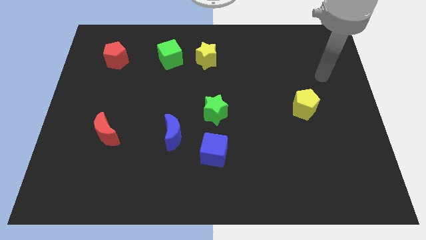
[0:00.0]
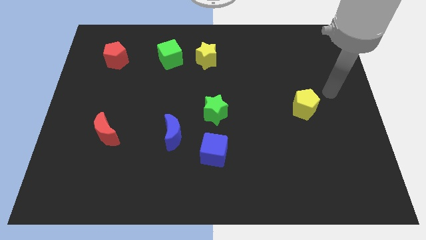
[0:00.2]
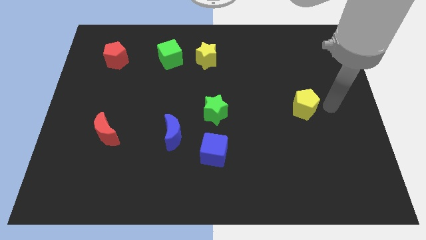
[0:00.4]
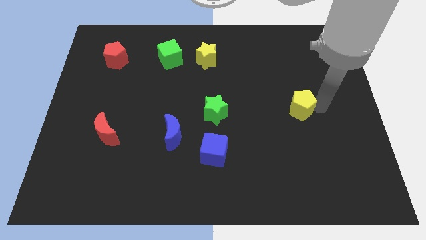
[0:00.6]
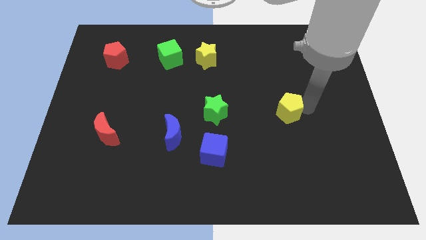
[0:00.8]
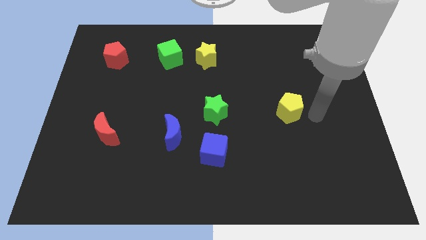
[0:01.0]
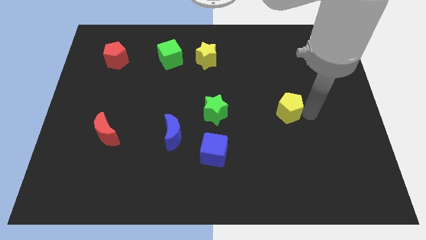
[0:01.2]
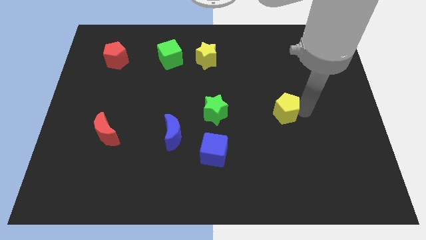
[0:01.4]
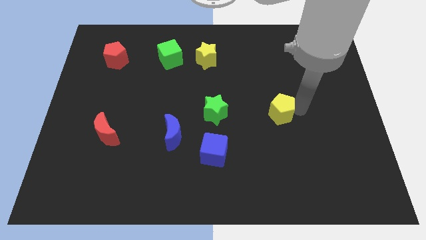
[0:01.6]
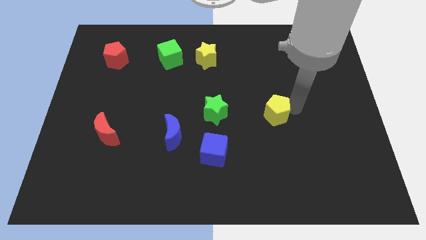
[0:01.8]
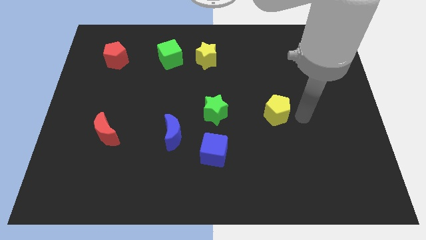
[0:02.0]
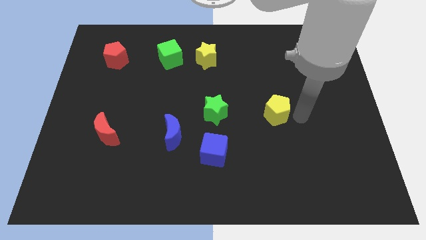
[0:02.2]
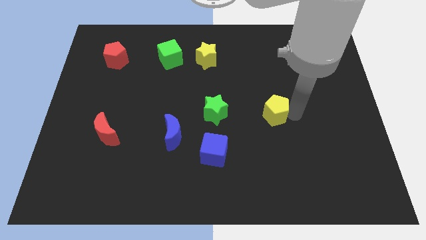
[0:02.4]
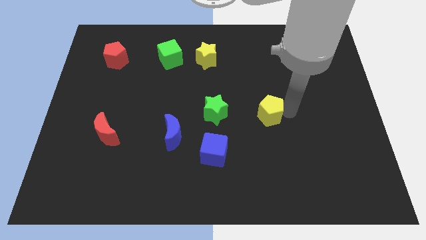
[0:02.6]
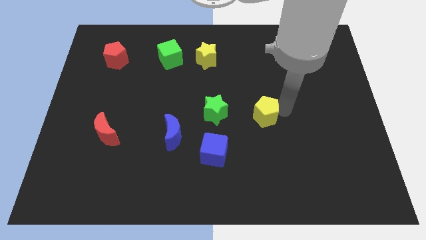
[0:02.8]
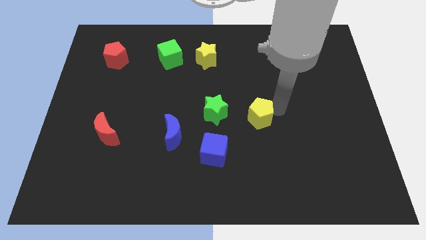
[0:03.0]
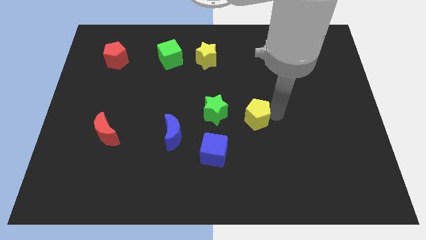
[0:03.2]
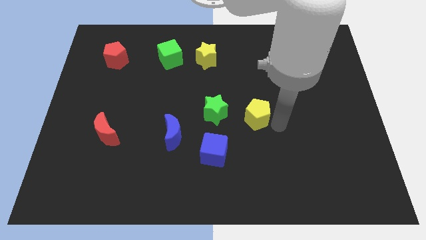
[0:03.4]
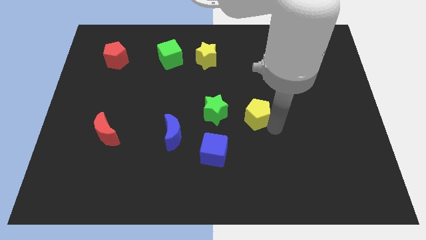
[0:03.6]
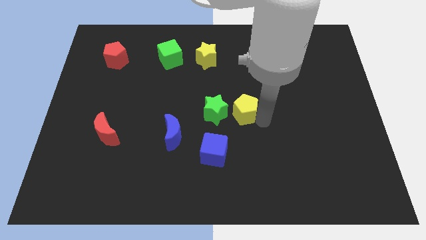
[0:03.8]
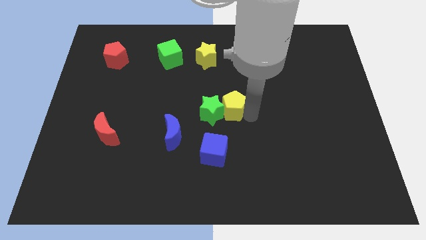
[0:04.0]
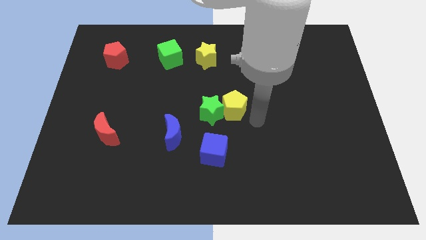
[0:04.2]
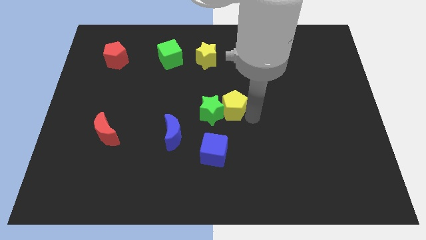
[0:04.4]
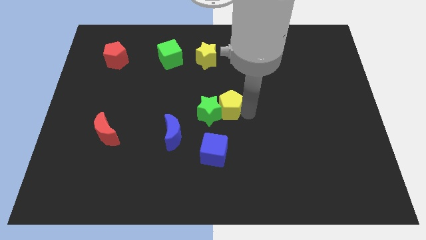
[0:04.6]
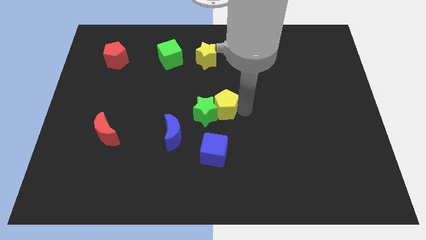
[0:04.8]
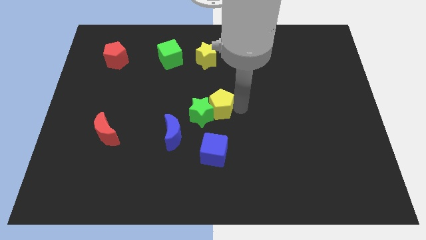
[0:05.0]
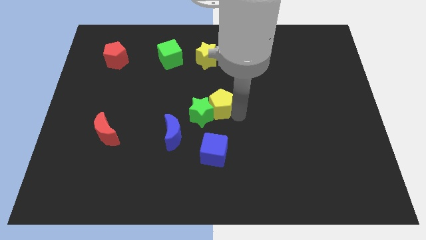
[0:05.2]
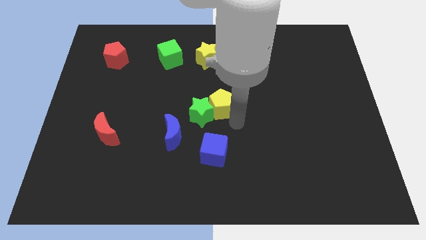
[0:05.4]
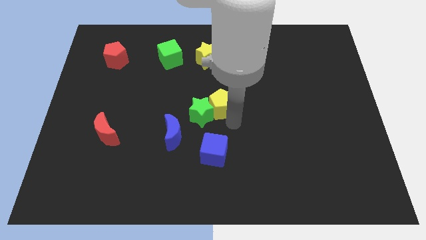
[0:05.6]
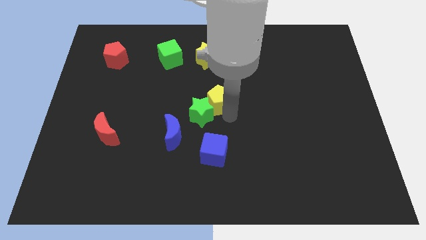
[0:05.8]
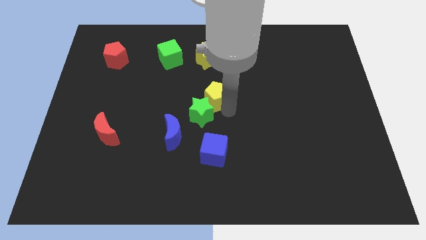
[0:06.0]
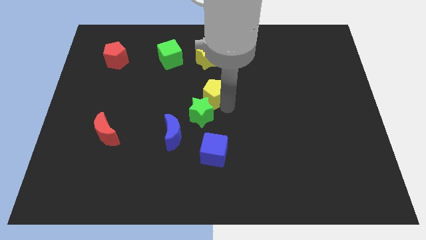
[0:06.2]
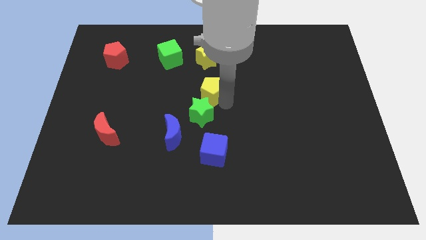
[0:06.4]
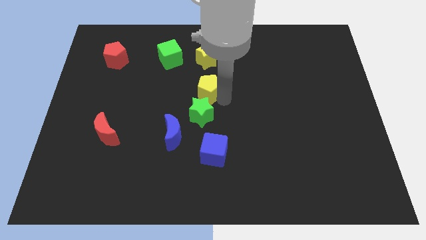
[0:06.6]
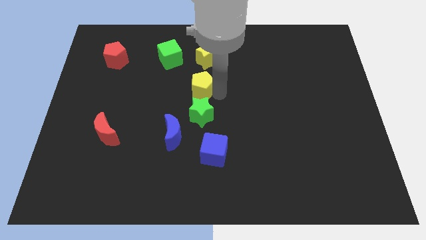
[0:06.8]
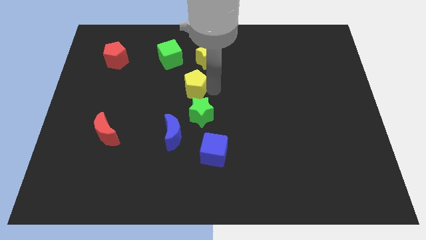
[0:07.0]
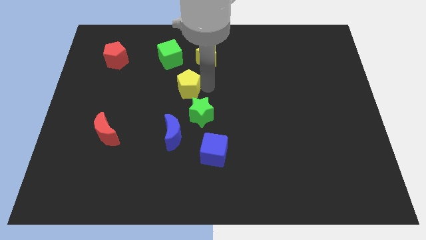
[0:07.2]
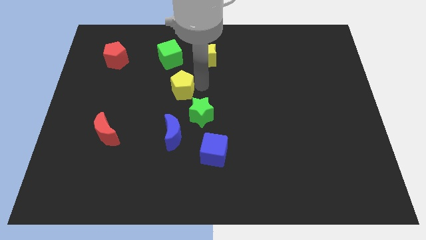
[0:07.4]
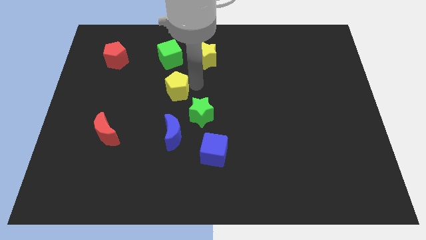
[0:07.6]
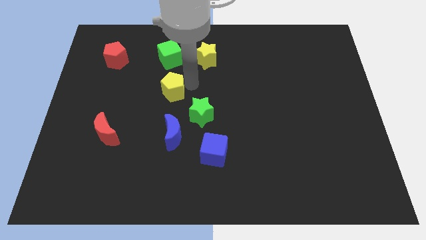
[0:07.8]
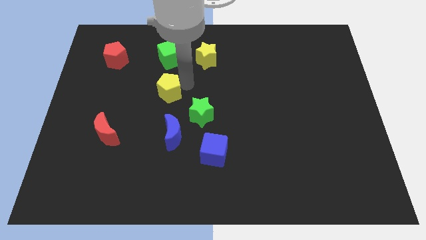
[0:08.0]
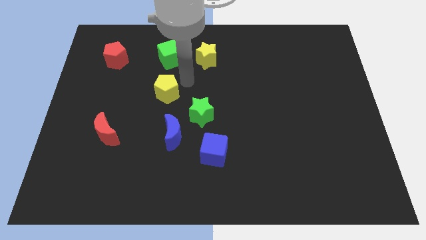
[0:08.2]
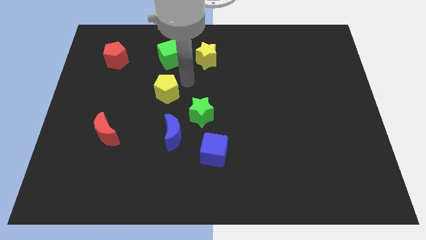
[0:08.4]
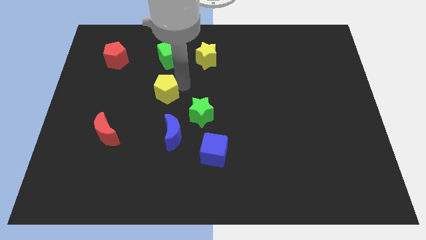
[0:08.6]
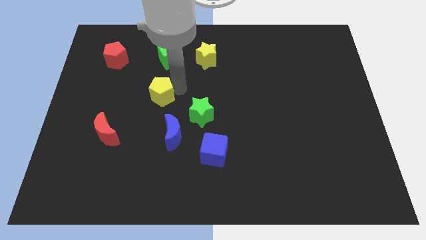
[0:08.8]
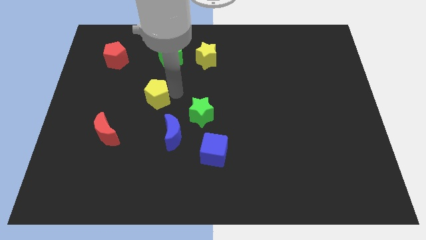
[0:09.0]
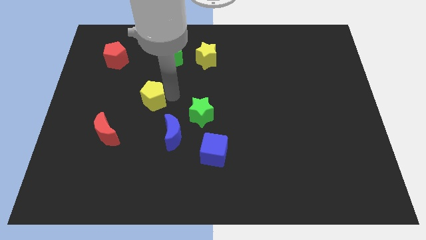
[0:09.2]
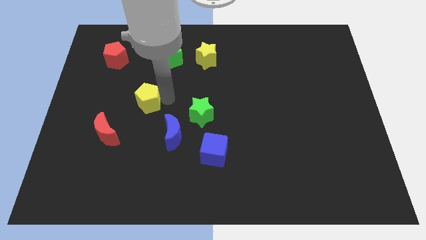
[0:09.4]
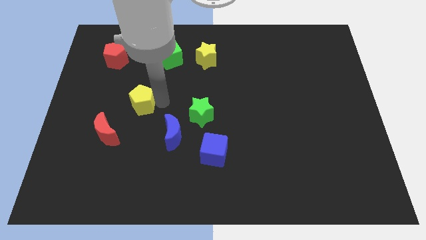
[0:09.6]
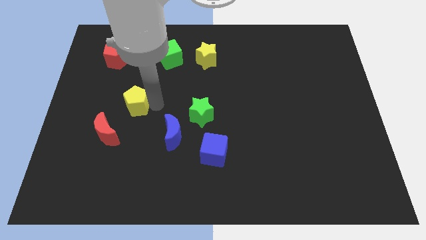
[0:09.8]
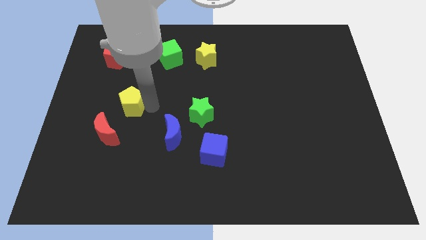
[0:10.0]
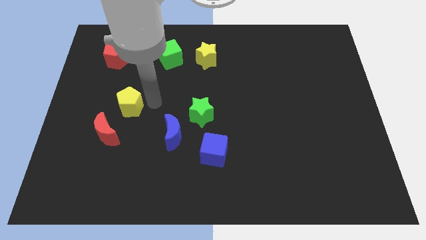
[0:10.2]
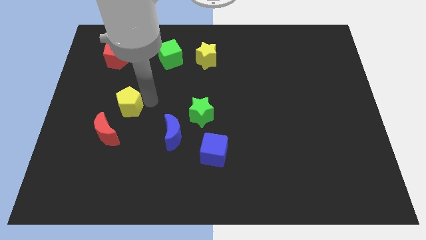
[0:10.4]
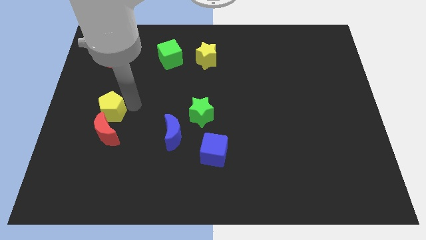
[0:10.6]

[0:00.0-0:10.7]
move the yellow pentagon diagonally up and to the left of the red moon

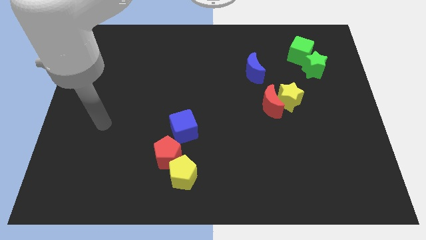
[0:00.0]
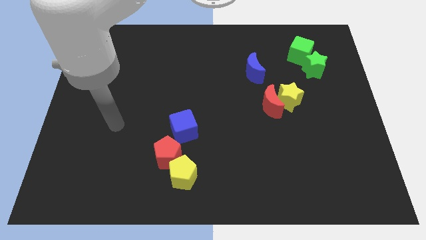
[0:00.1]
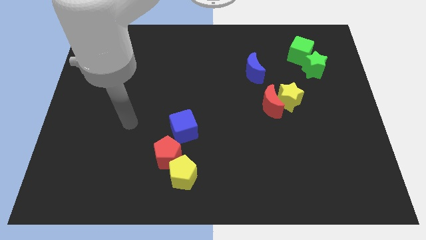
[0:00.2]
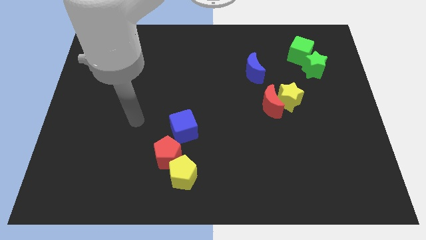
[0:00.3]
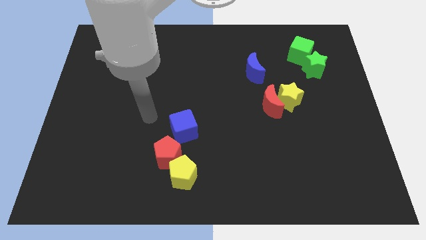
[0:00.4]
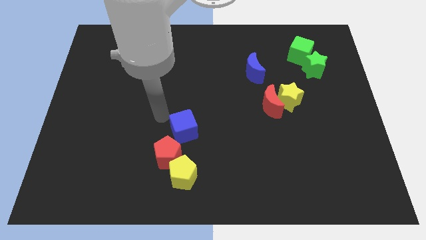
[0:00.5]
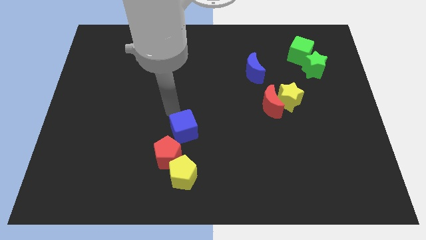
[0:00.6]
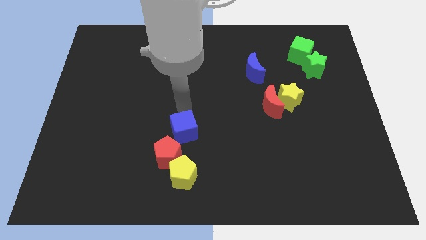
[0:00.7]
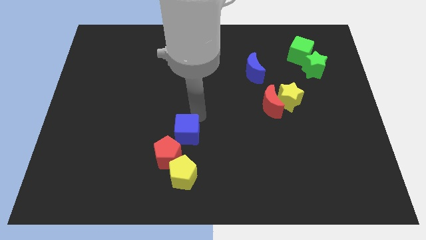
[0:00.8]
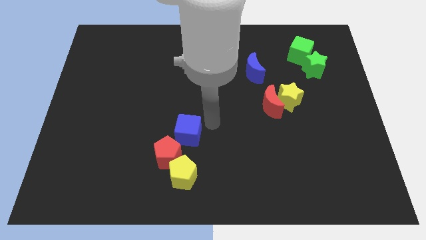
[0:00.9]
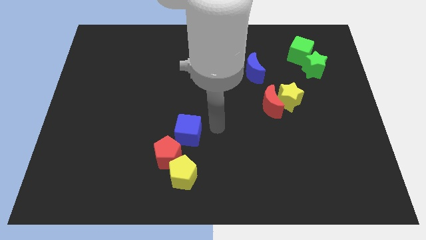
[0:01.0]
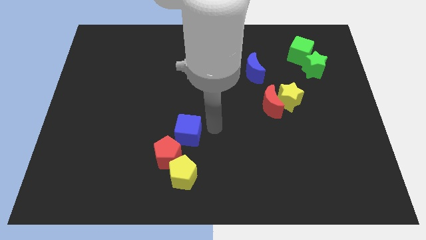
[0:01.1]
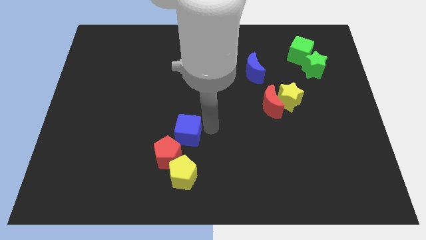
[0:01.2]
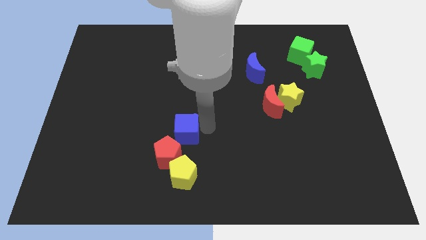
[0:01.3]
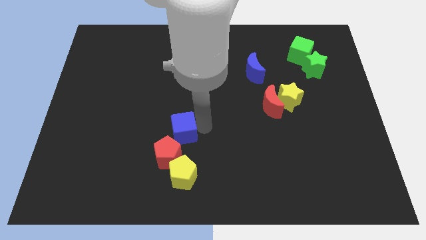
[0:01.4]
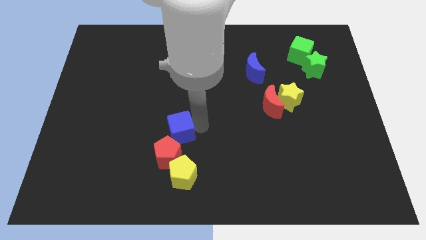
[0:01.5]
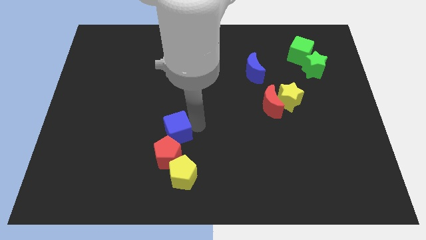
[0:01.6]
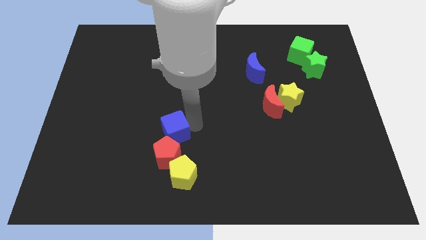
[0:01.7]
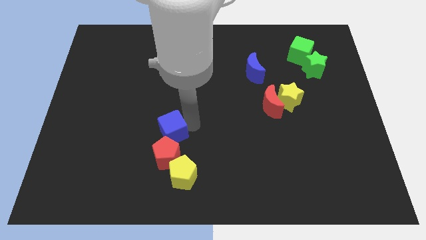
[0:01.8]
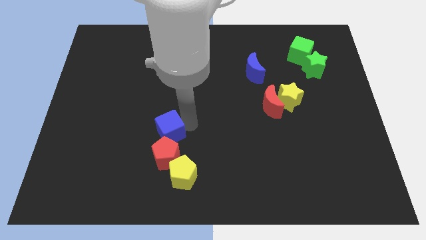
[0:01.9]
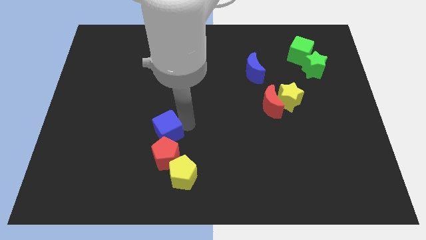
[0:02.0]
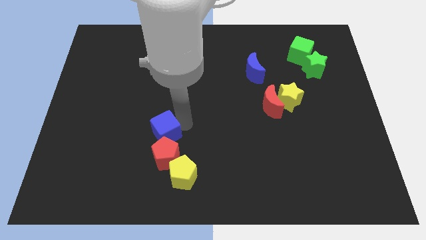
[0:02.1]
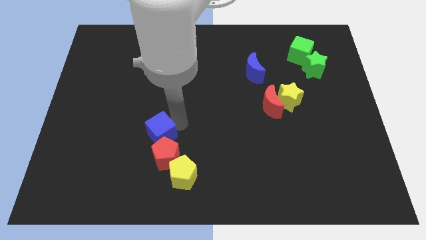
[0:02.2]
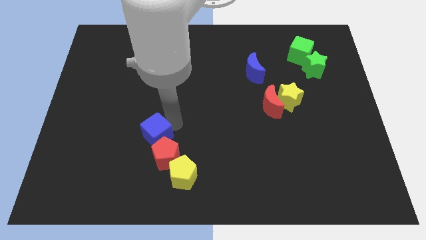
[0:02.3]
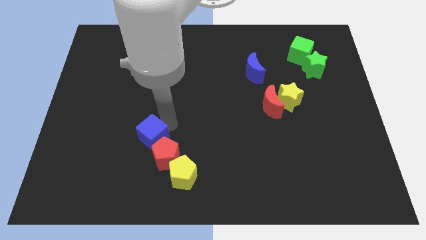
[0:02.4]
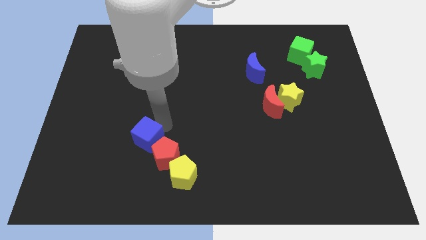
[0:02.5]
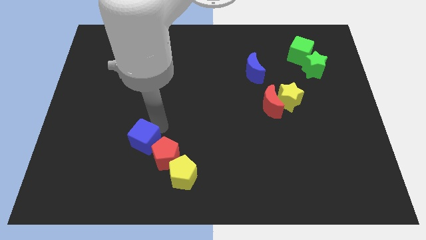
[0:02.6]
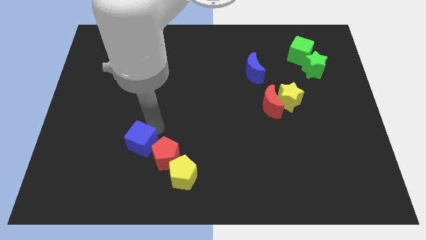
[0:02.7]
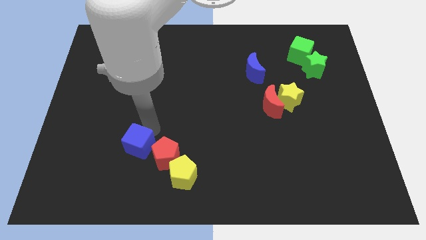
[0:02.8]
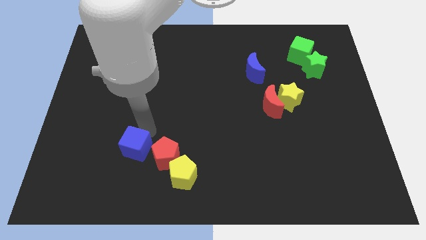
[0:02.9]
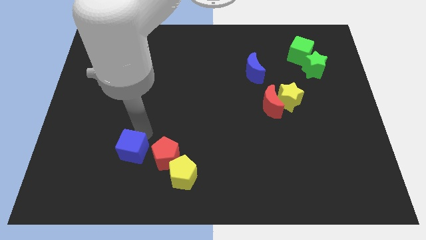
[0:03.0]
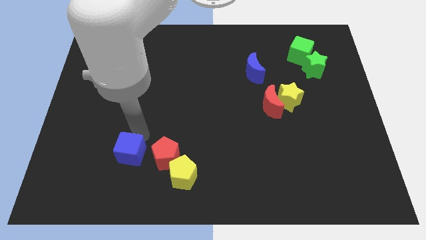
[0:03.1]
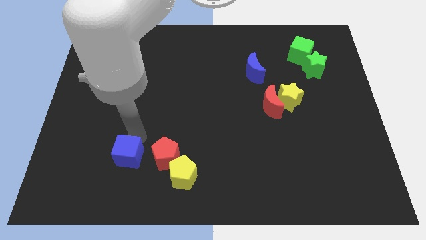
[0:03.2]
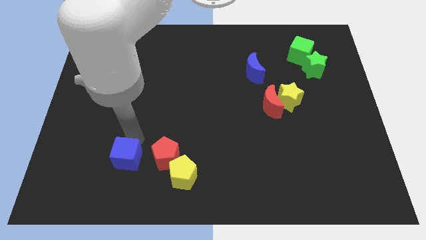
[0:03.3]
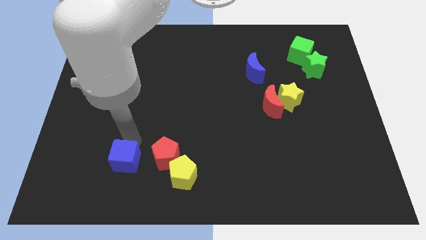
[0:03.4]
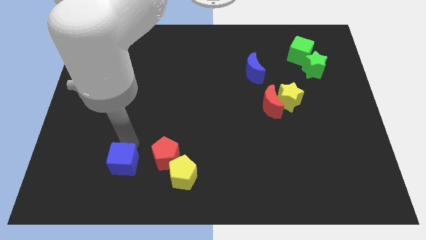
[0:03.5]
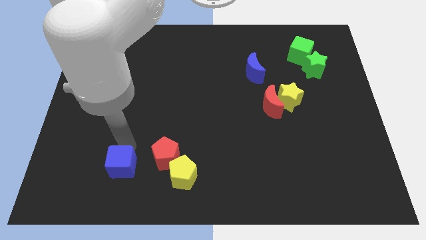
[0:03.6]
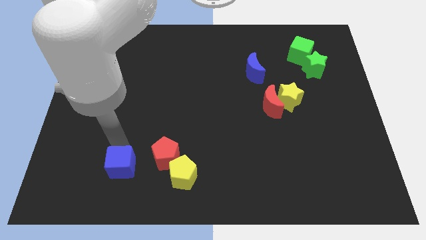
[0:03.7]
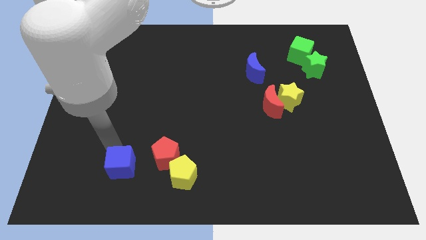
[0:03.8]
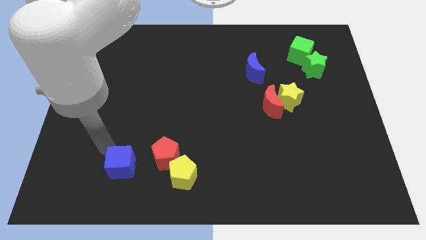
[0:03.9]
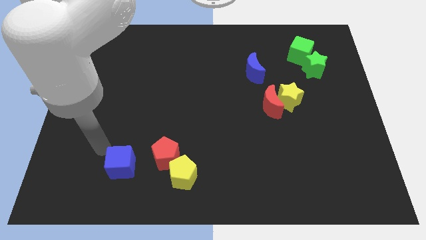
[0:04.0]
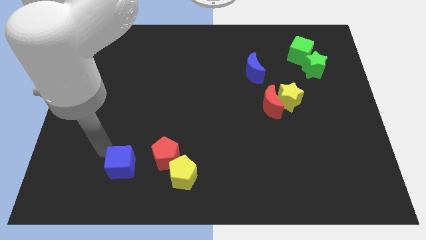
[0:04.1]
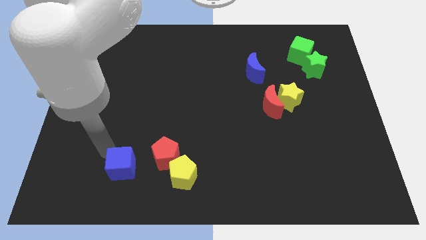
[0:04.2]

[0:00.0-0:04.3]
slide the blue cube to the bottom left of the red pentagon
